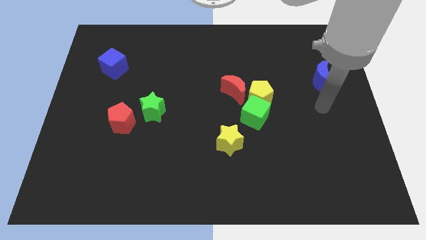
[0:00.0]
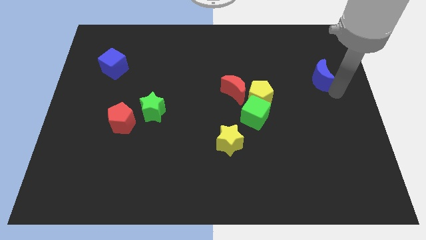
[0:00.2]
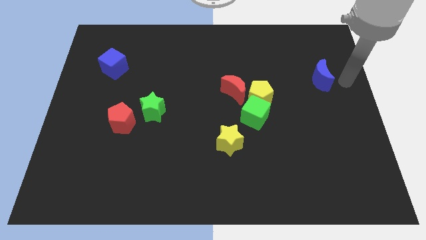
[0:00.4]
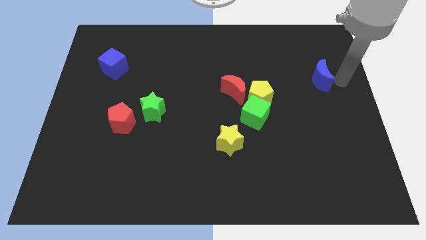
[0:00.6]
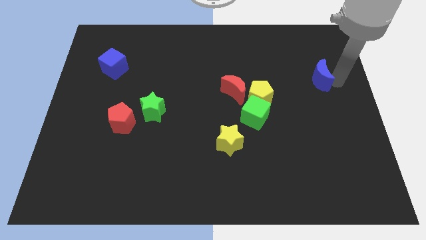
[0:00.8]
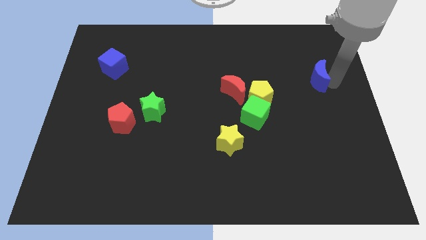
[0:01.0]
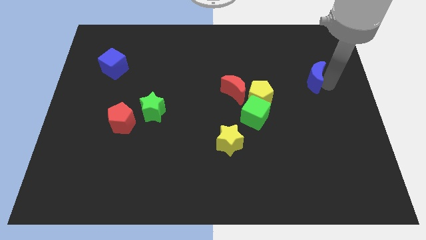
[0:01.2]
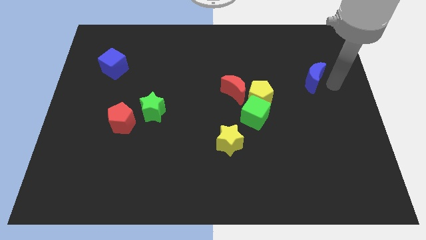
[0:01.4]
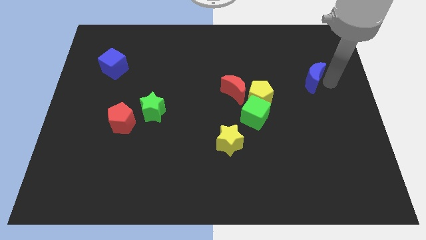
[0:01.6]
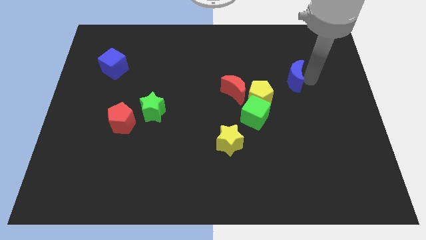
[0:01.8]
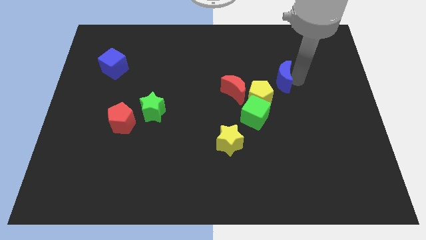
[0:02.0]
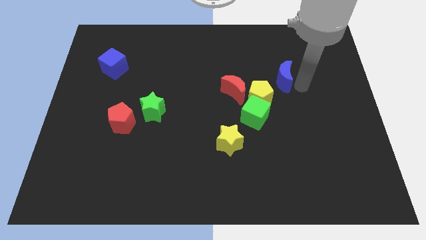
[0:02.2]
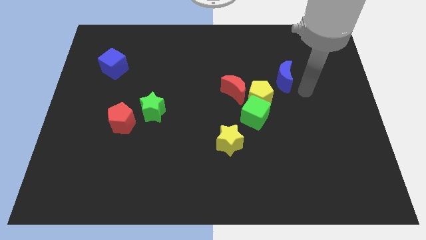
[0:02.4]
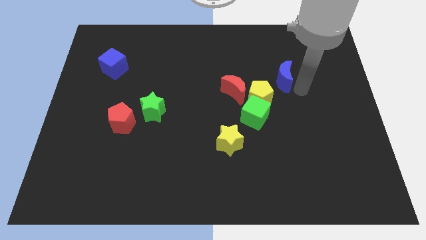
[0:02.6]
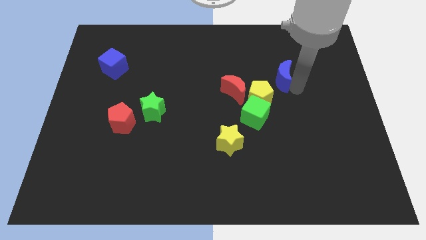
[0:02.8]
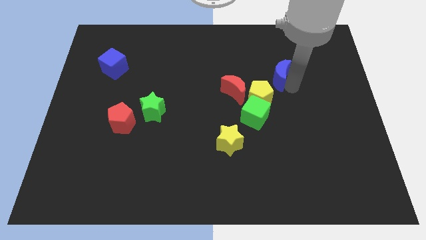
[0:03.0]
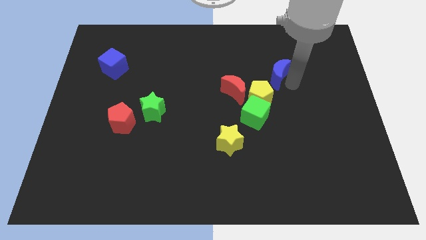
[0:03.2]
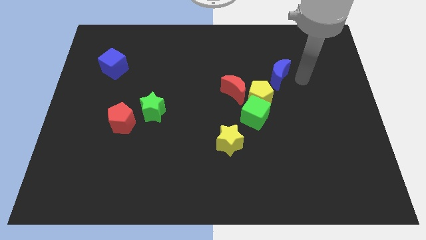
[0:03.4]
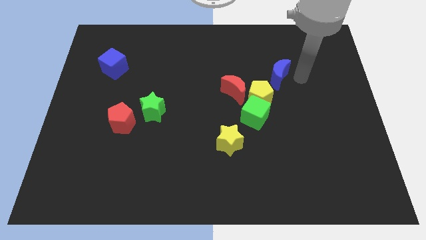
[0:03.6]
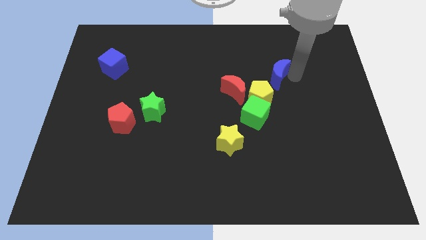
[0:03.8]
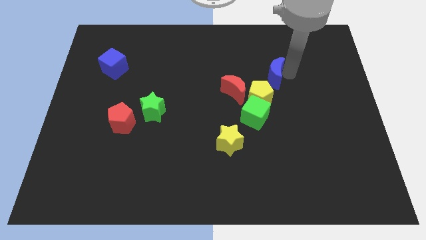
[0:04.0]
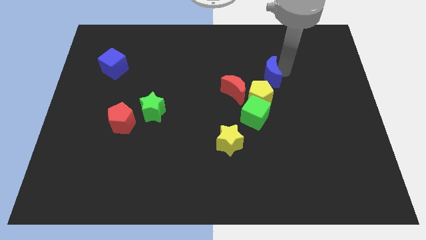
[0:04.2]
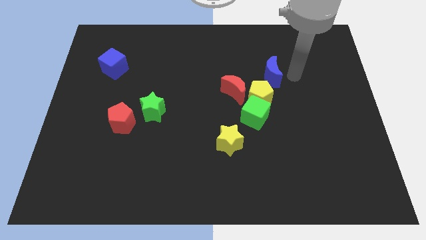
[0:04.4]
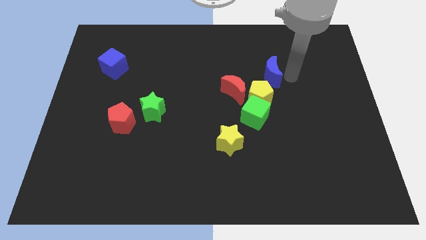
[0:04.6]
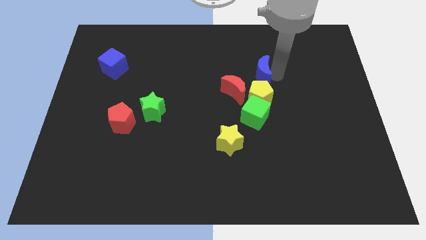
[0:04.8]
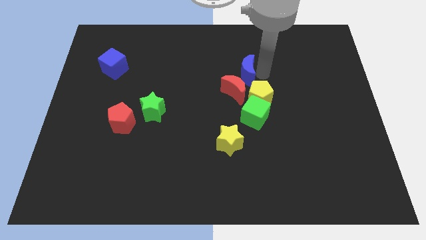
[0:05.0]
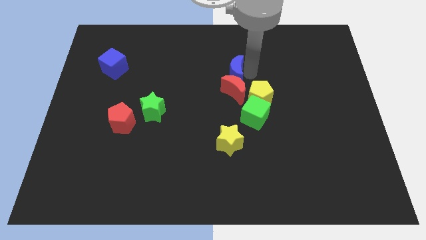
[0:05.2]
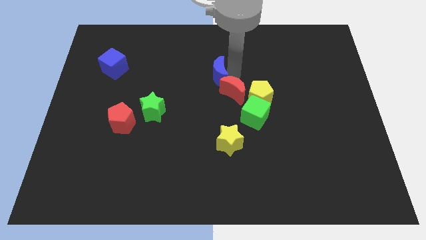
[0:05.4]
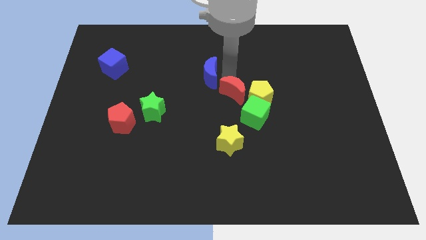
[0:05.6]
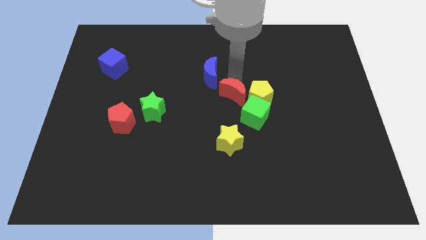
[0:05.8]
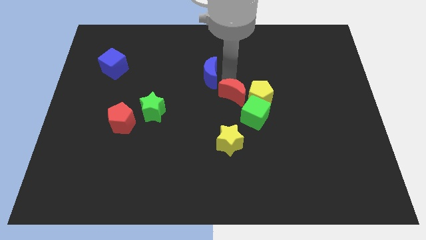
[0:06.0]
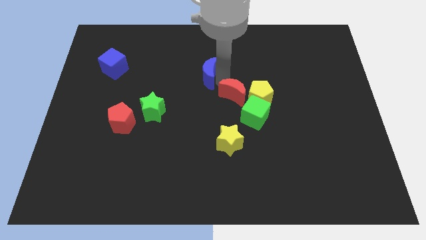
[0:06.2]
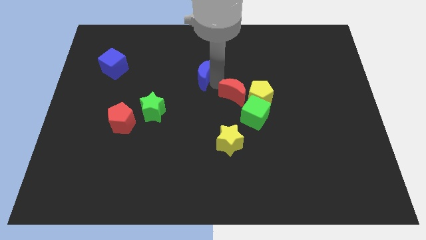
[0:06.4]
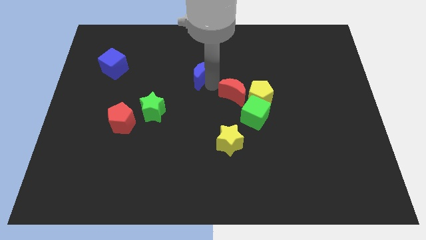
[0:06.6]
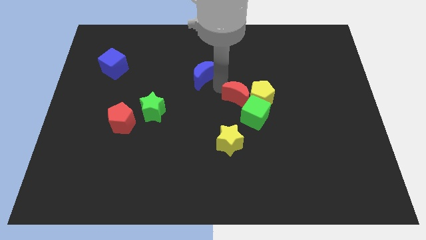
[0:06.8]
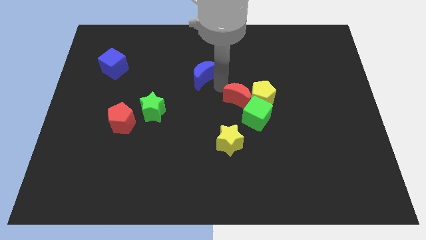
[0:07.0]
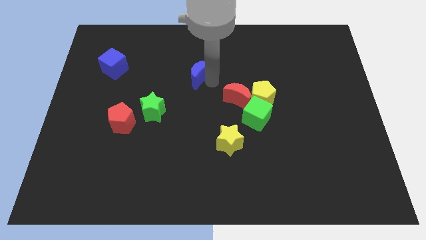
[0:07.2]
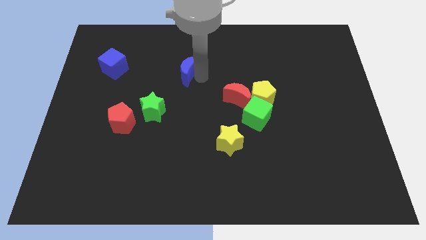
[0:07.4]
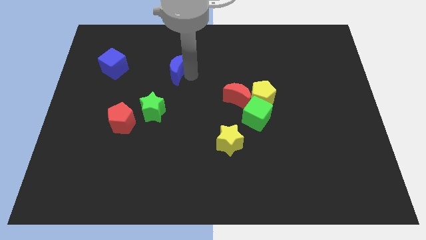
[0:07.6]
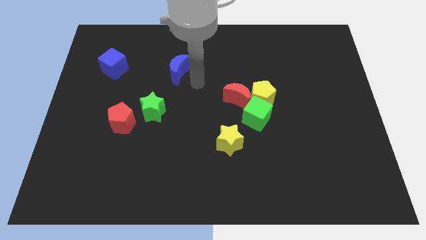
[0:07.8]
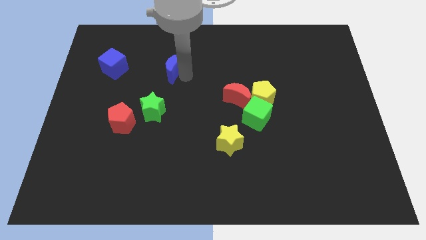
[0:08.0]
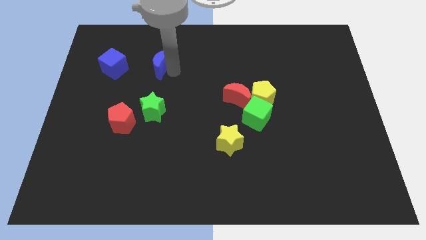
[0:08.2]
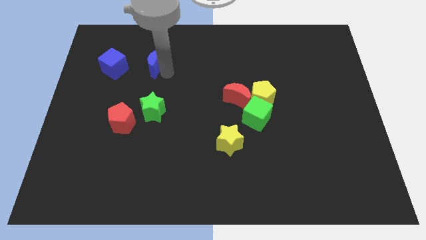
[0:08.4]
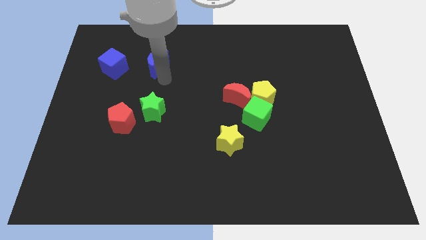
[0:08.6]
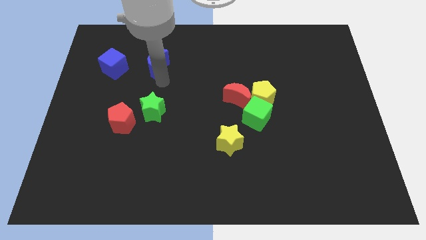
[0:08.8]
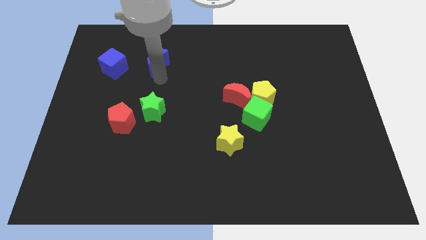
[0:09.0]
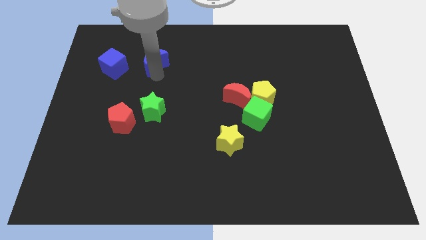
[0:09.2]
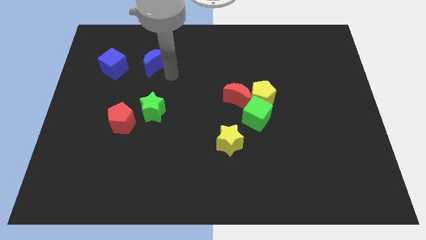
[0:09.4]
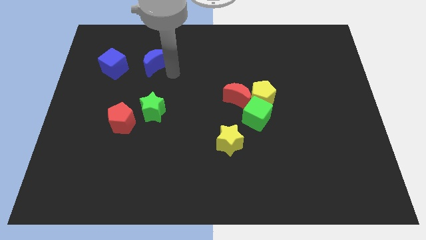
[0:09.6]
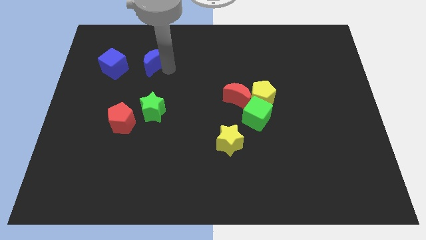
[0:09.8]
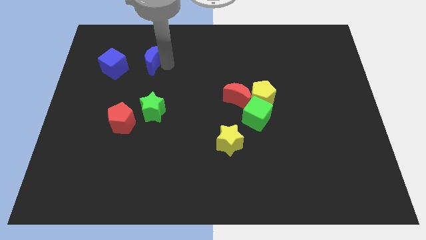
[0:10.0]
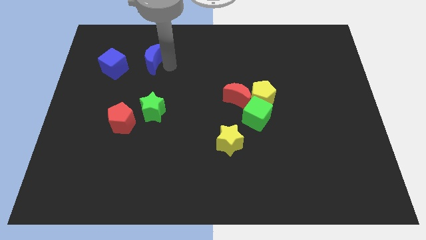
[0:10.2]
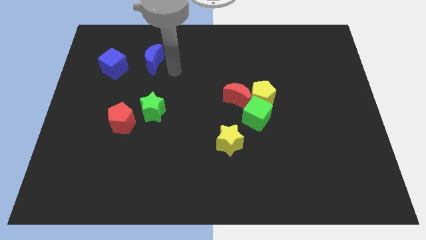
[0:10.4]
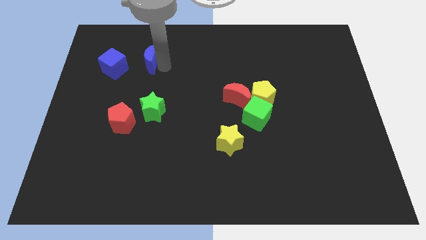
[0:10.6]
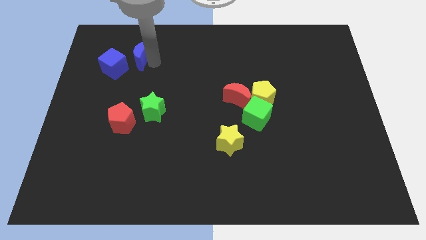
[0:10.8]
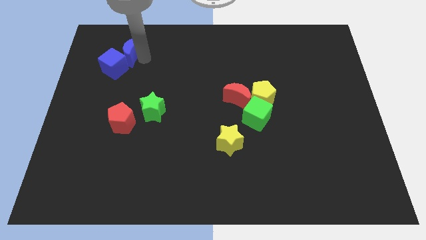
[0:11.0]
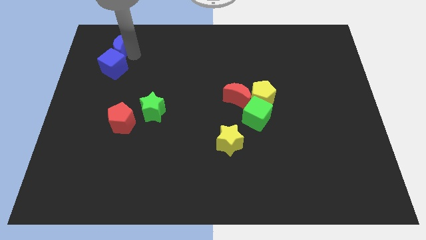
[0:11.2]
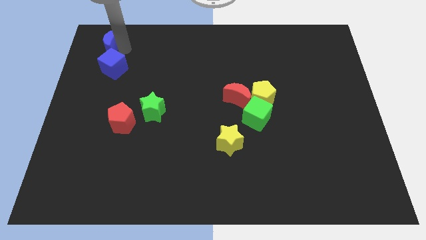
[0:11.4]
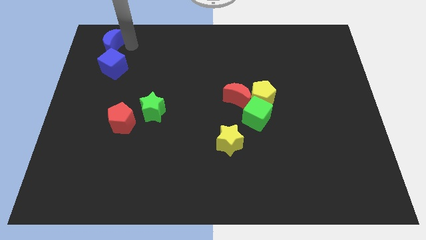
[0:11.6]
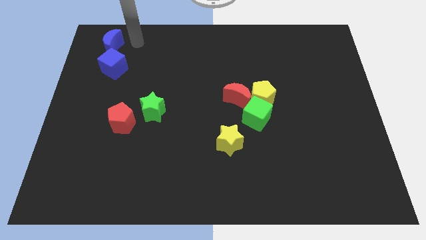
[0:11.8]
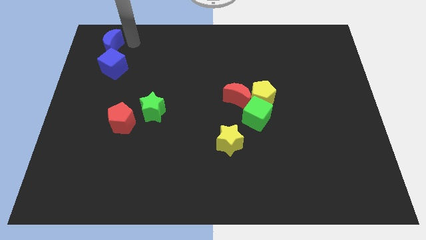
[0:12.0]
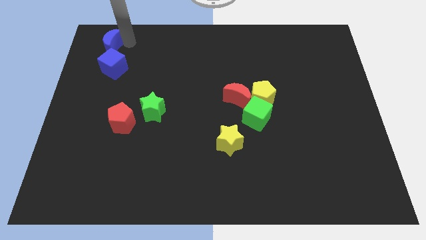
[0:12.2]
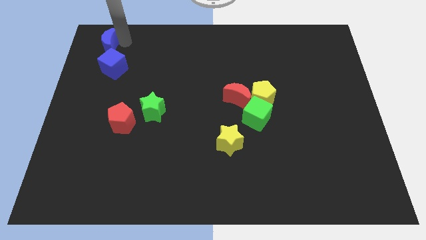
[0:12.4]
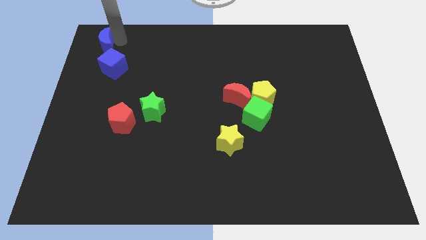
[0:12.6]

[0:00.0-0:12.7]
put the blue moon to the top left corner

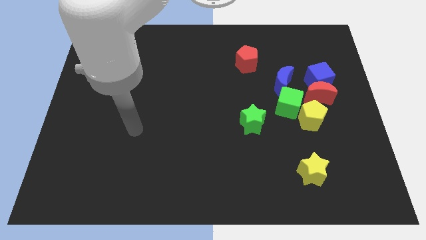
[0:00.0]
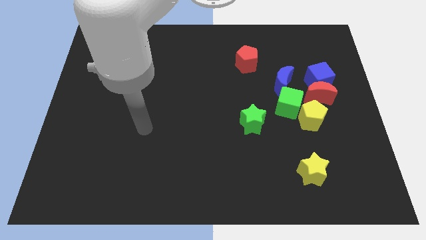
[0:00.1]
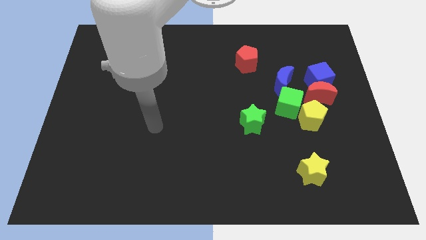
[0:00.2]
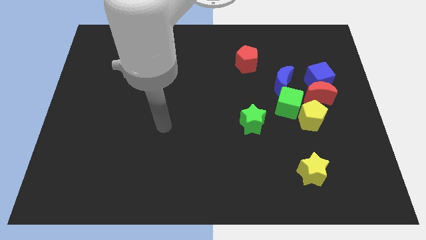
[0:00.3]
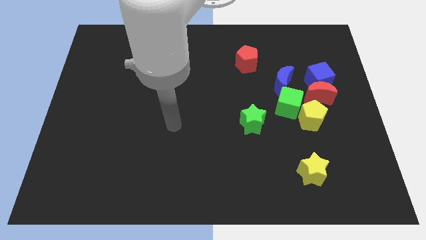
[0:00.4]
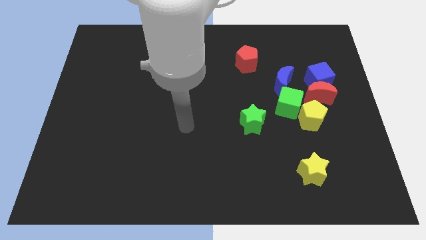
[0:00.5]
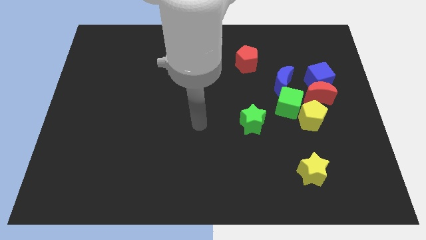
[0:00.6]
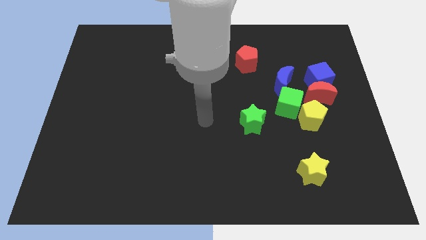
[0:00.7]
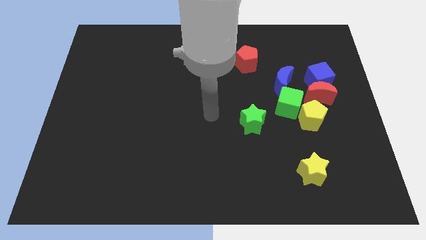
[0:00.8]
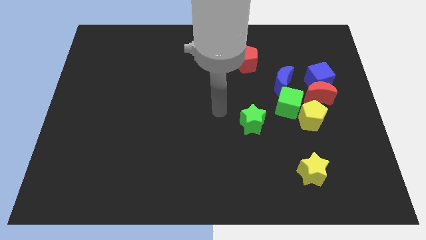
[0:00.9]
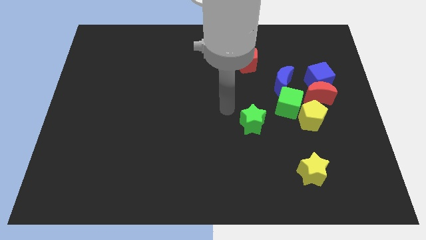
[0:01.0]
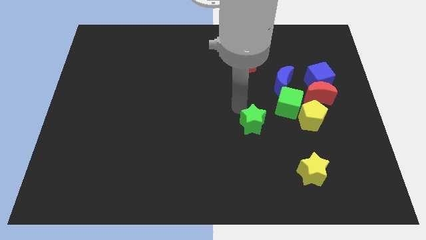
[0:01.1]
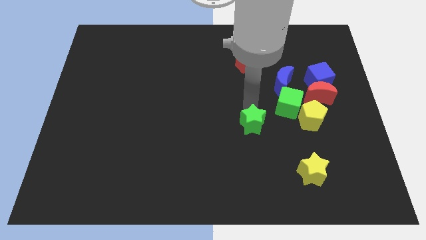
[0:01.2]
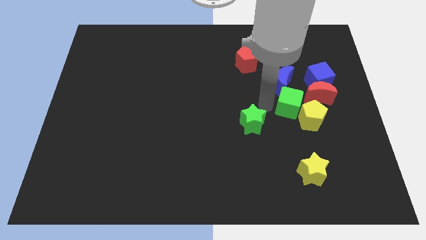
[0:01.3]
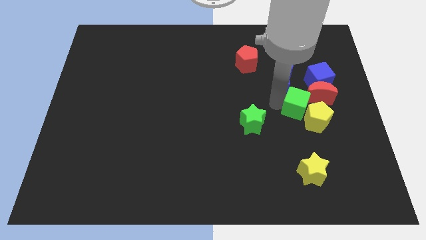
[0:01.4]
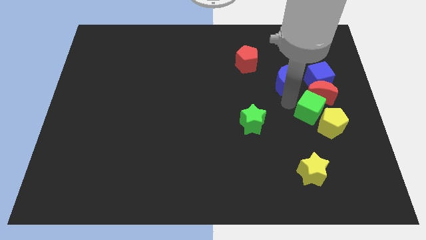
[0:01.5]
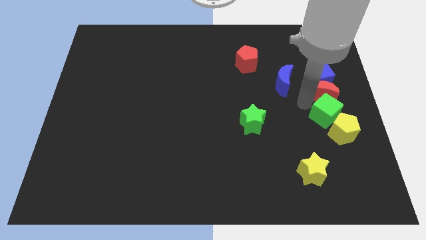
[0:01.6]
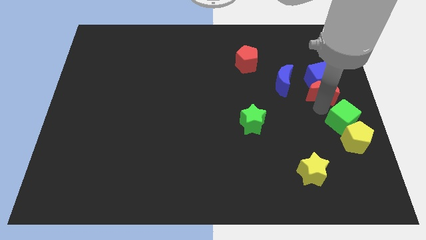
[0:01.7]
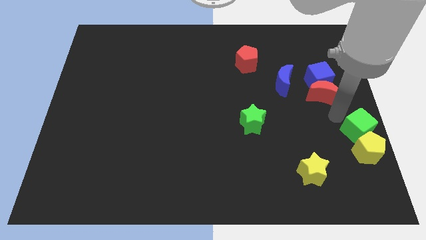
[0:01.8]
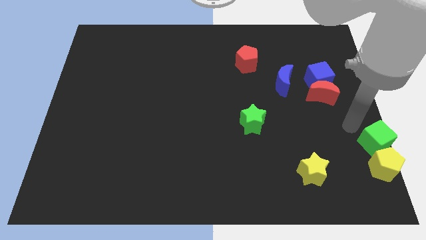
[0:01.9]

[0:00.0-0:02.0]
move the yellow pentagon to the bottom right corner
